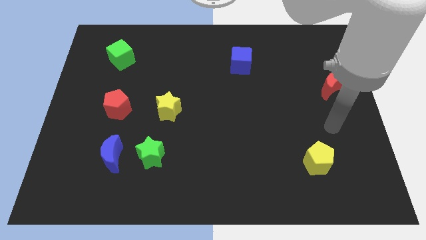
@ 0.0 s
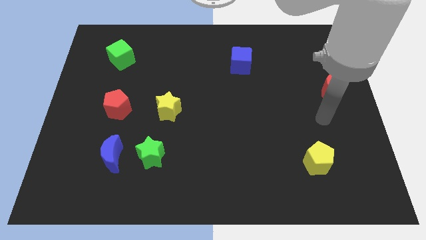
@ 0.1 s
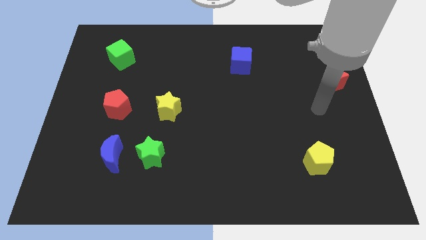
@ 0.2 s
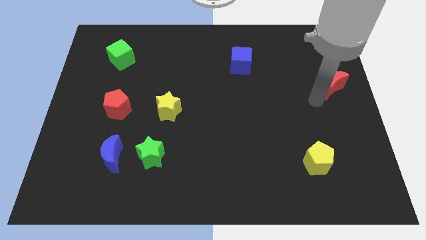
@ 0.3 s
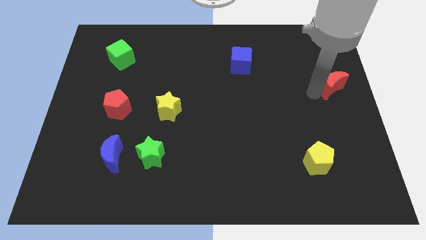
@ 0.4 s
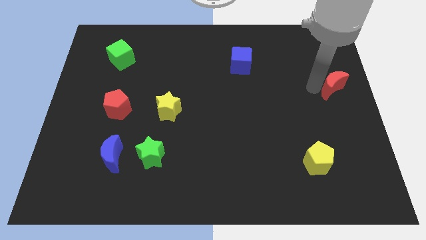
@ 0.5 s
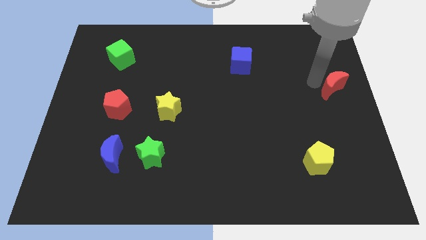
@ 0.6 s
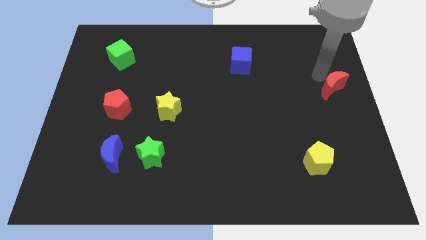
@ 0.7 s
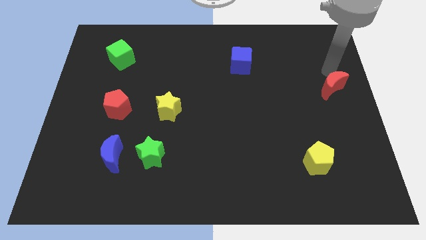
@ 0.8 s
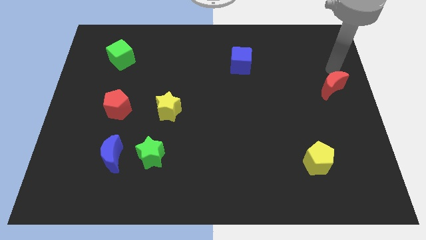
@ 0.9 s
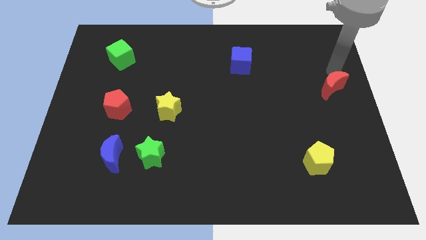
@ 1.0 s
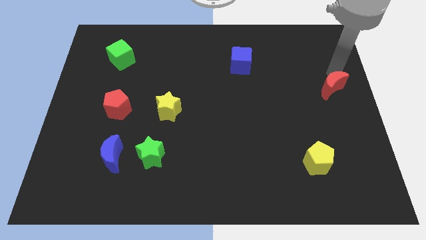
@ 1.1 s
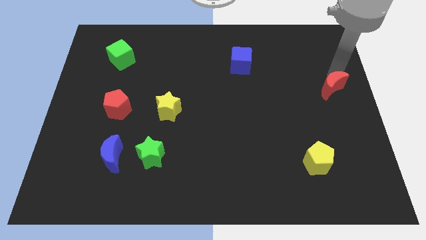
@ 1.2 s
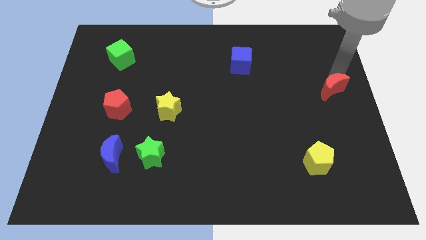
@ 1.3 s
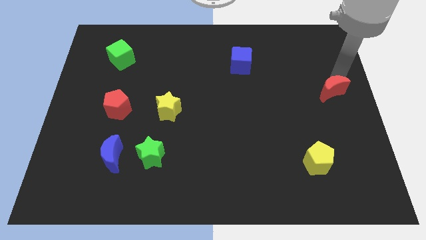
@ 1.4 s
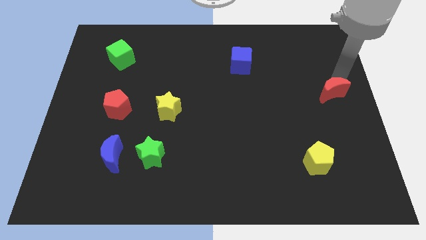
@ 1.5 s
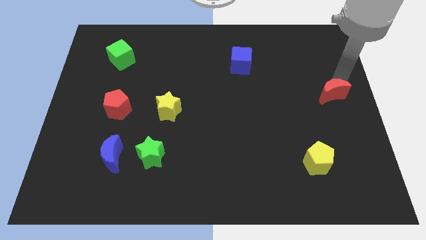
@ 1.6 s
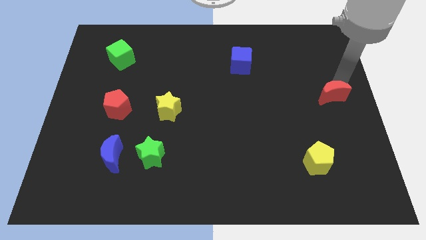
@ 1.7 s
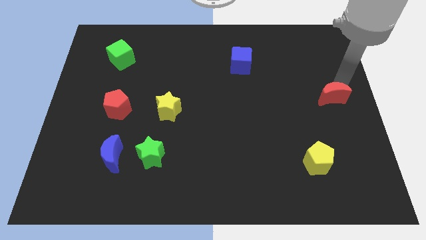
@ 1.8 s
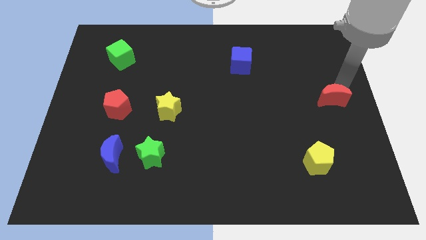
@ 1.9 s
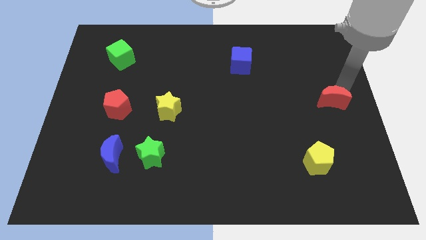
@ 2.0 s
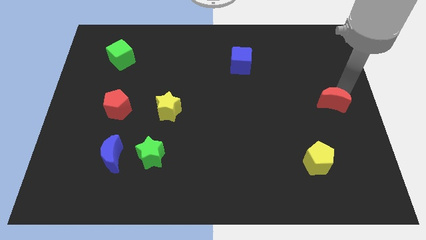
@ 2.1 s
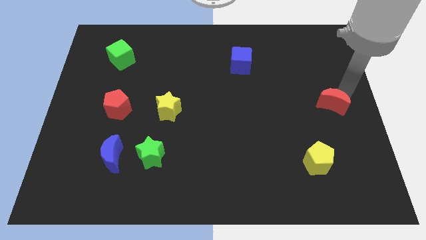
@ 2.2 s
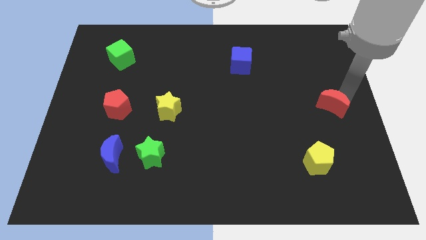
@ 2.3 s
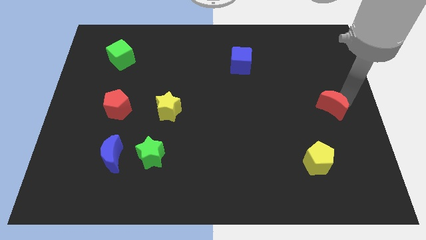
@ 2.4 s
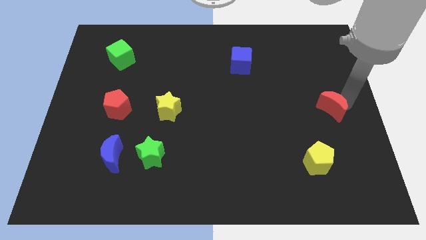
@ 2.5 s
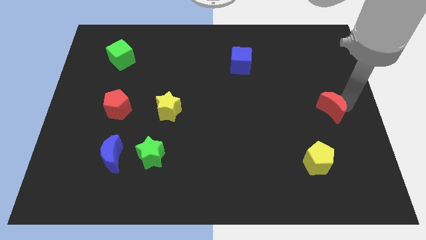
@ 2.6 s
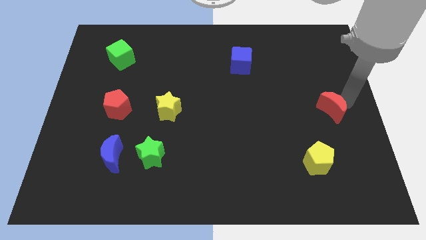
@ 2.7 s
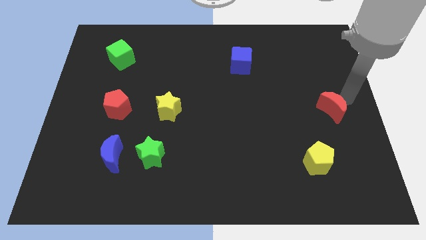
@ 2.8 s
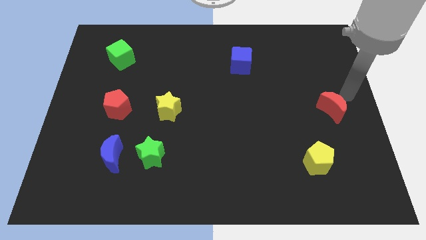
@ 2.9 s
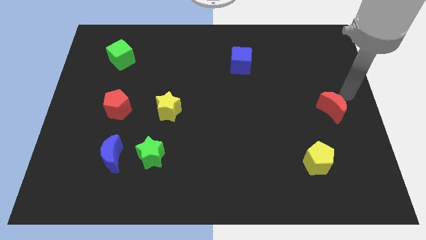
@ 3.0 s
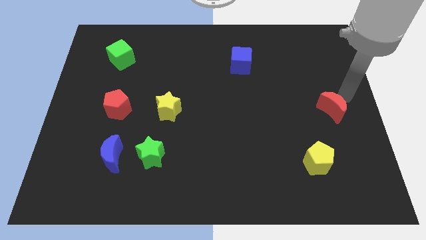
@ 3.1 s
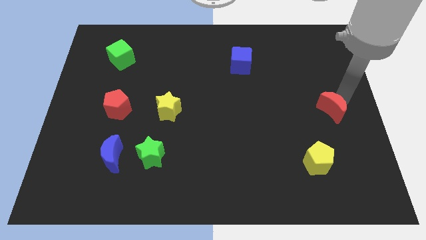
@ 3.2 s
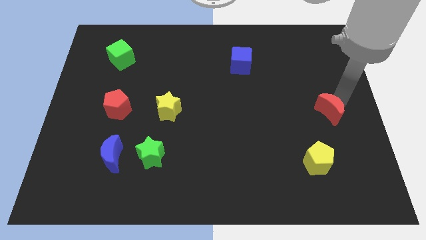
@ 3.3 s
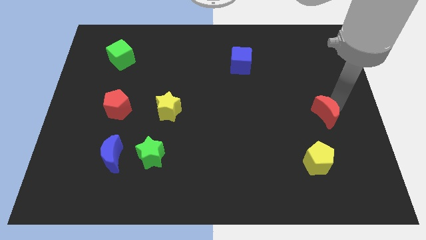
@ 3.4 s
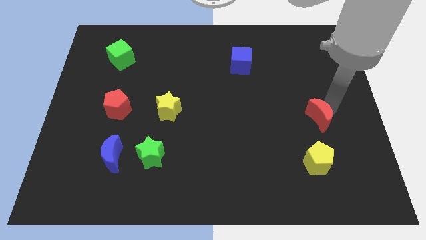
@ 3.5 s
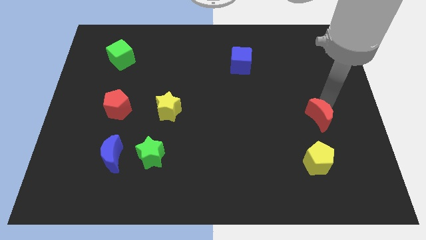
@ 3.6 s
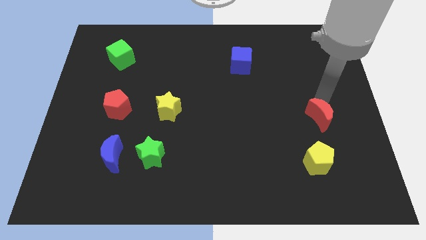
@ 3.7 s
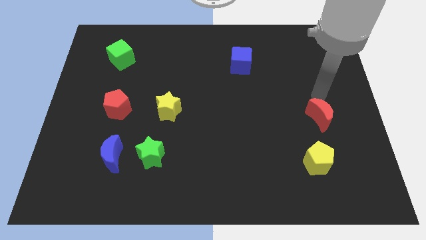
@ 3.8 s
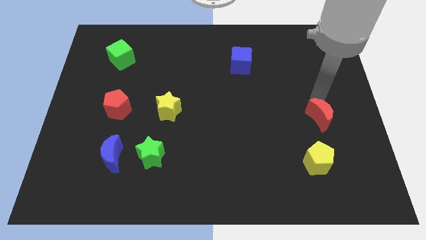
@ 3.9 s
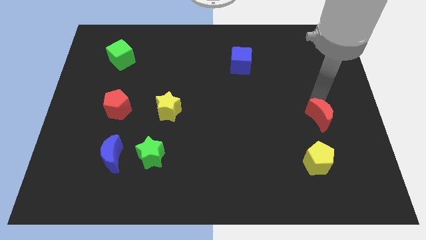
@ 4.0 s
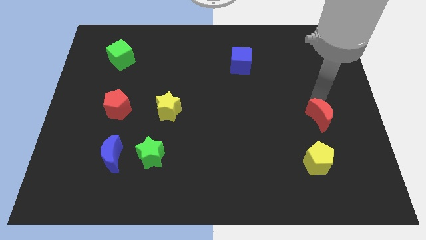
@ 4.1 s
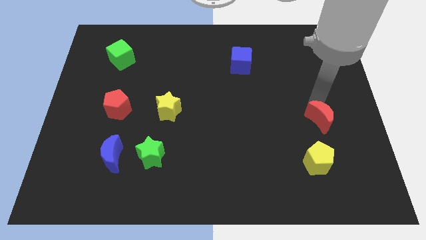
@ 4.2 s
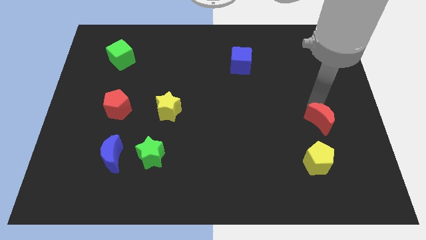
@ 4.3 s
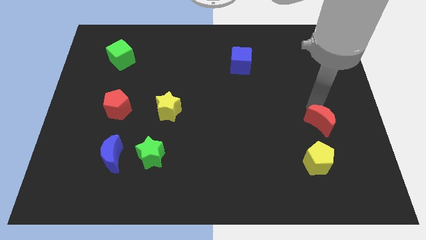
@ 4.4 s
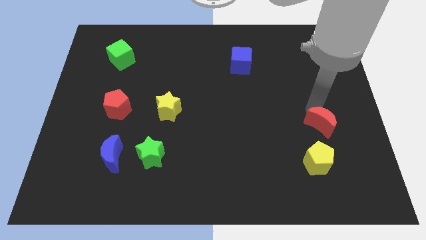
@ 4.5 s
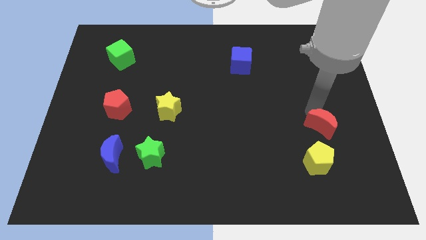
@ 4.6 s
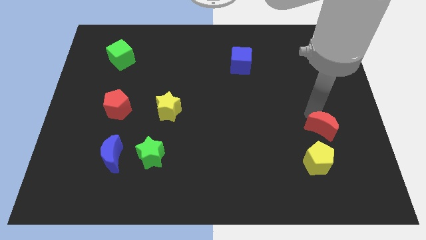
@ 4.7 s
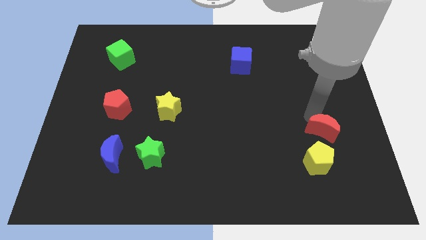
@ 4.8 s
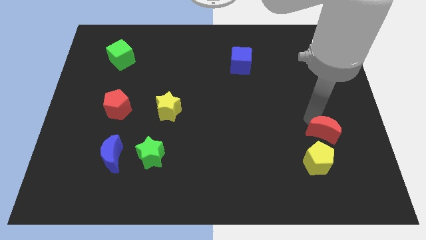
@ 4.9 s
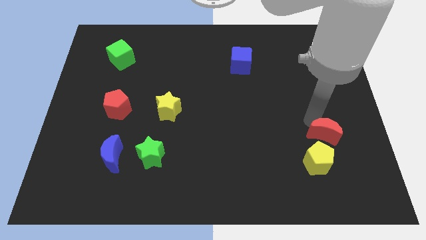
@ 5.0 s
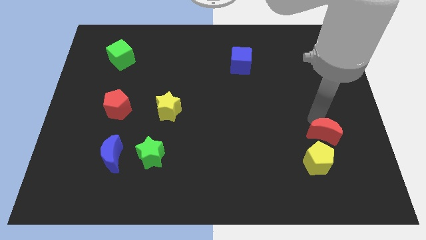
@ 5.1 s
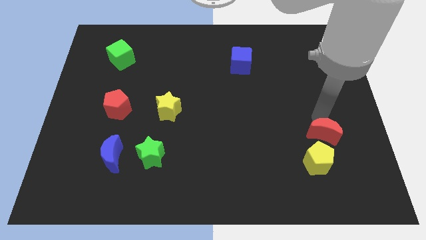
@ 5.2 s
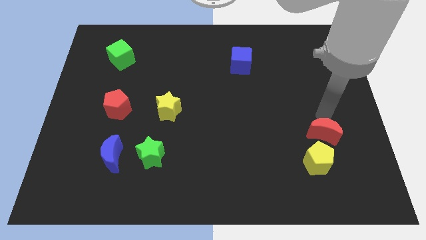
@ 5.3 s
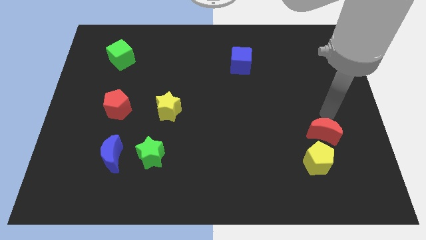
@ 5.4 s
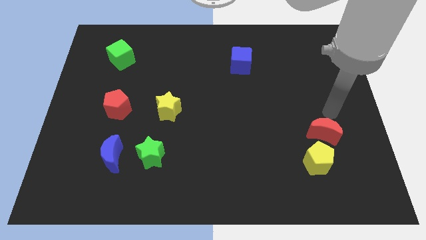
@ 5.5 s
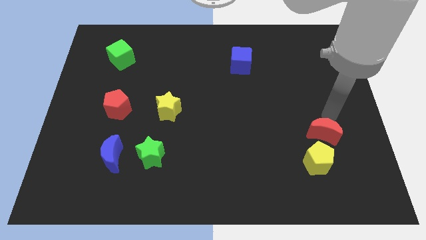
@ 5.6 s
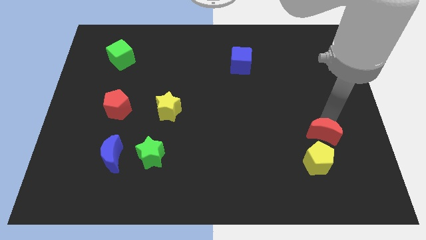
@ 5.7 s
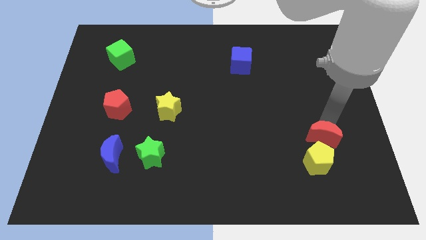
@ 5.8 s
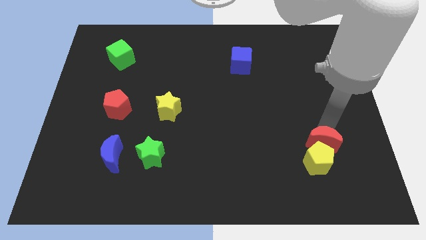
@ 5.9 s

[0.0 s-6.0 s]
move the red moon close to the yellow pentagon

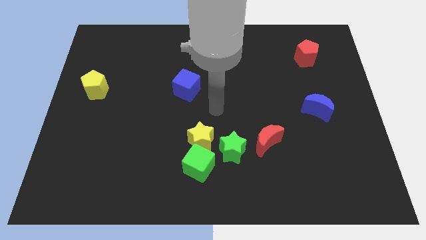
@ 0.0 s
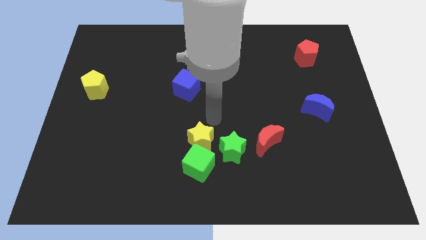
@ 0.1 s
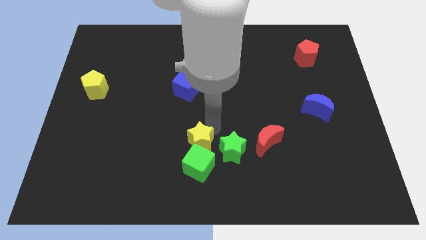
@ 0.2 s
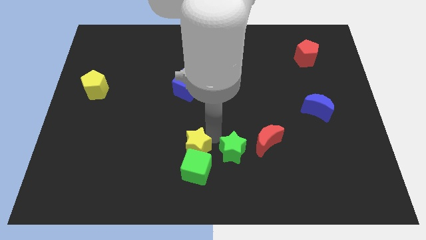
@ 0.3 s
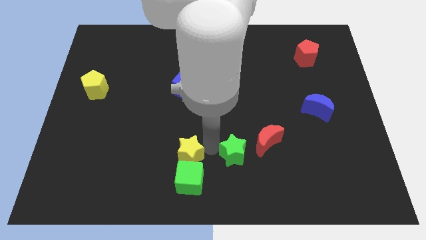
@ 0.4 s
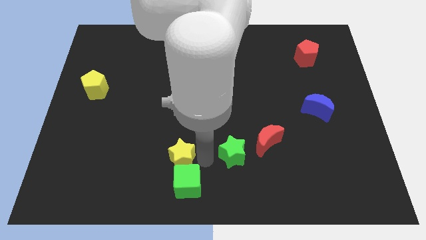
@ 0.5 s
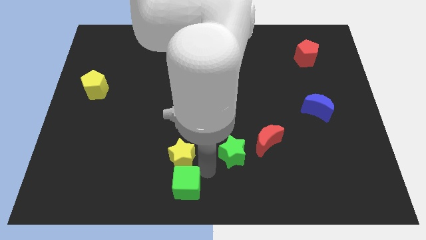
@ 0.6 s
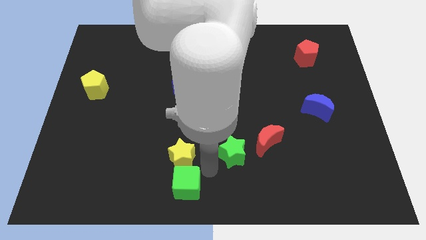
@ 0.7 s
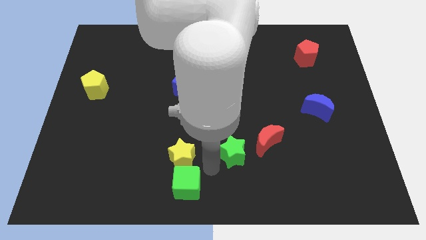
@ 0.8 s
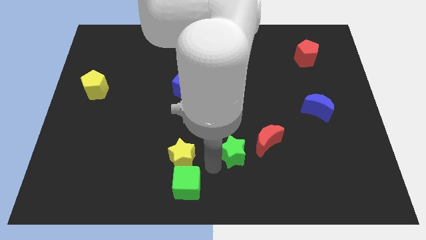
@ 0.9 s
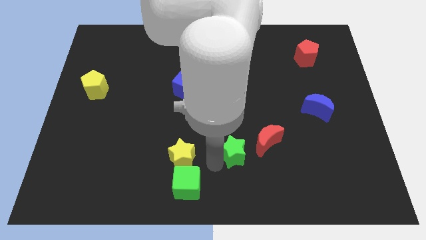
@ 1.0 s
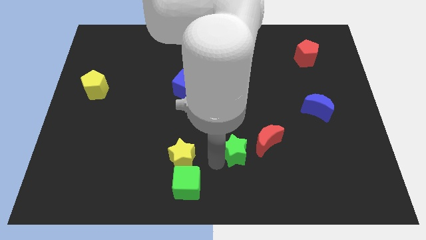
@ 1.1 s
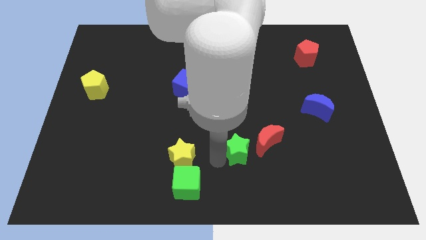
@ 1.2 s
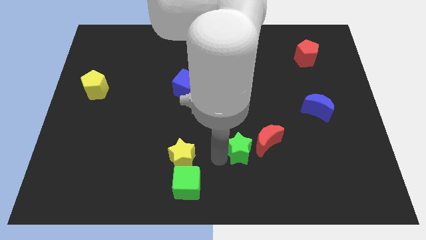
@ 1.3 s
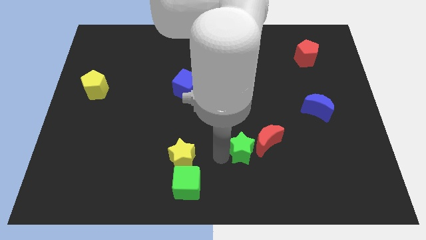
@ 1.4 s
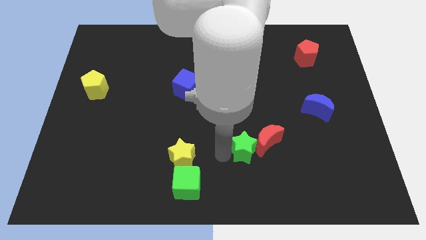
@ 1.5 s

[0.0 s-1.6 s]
move the green star to the red moon
